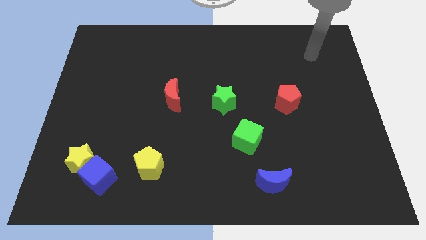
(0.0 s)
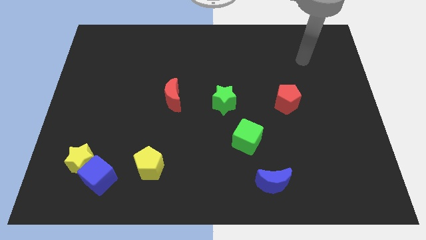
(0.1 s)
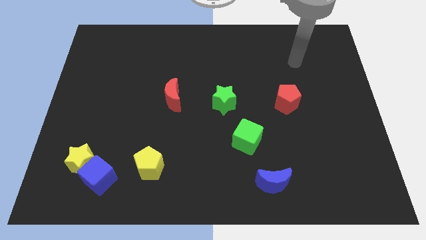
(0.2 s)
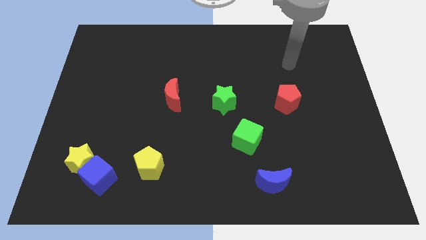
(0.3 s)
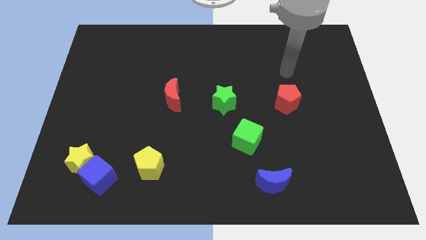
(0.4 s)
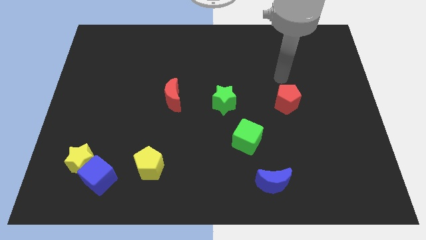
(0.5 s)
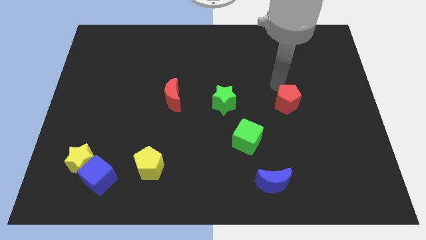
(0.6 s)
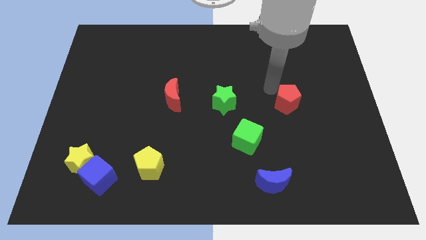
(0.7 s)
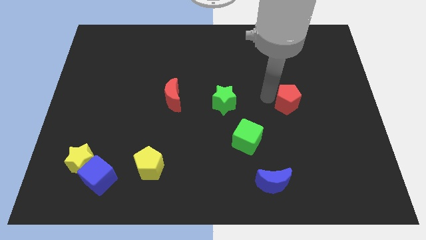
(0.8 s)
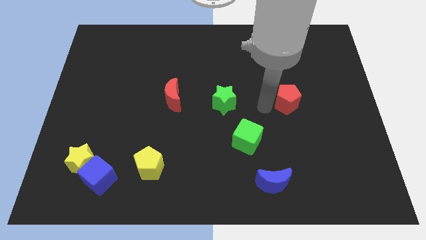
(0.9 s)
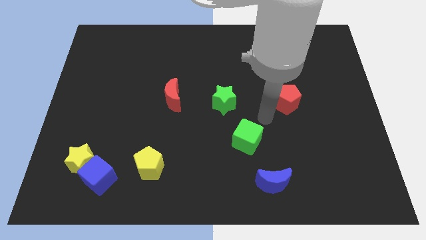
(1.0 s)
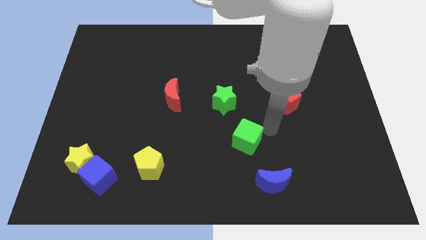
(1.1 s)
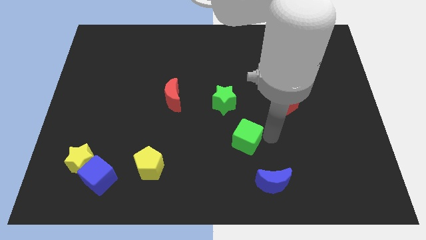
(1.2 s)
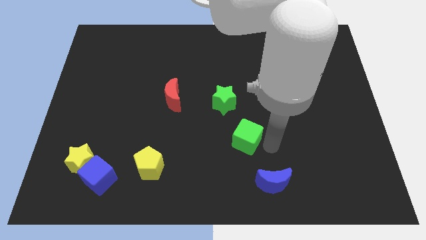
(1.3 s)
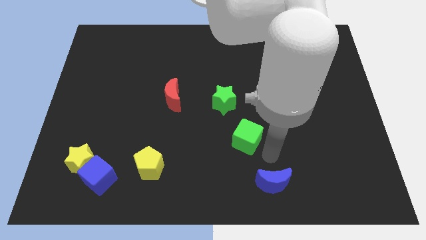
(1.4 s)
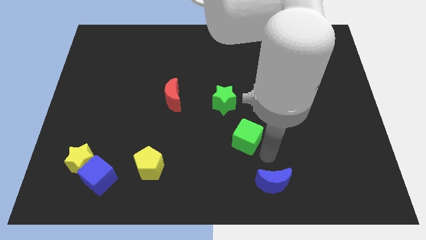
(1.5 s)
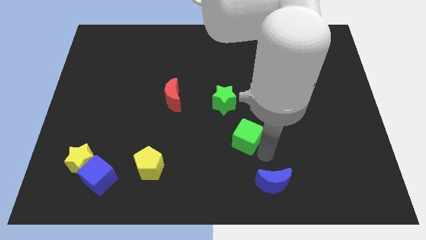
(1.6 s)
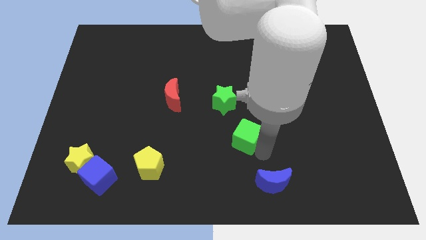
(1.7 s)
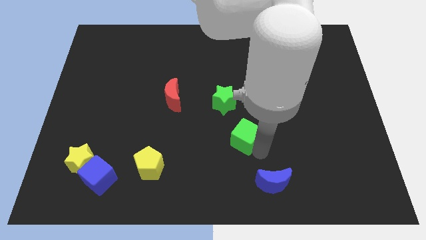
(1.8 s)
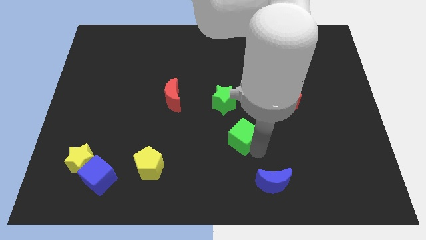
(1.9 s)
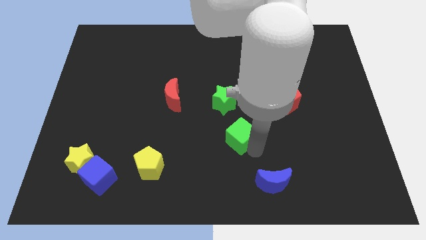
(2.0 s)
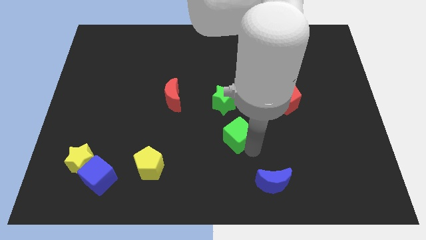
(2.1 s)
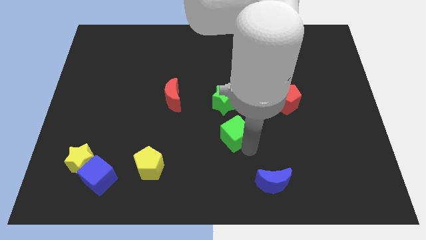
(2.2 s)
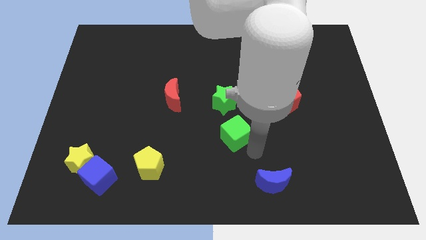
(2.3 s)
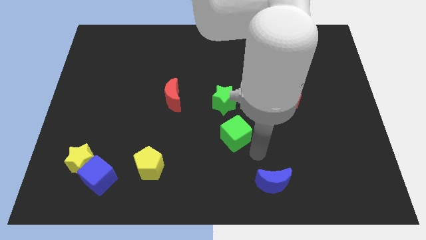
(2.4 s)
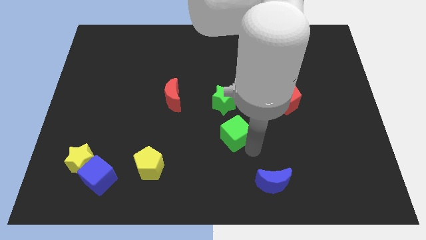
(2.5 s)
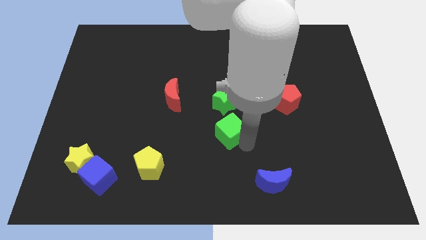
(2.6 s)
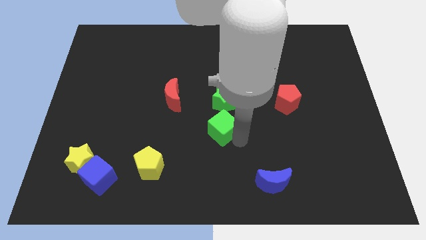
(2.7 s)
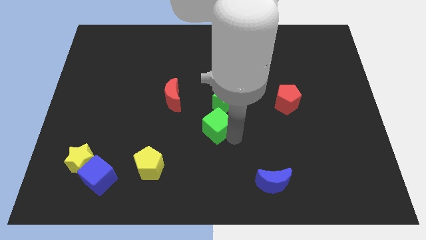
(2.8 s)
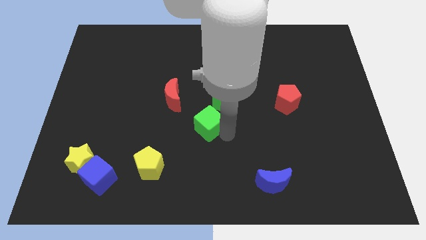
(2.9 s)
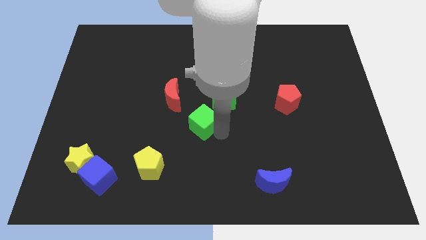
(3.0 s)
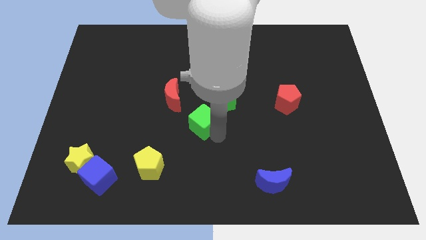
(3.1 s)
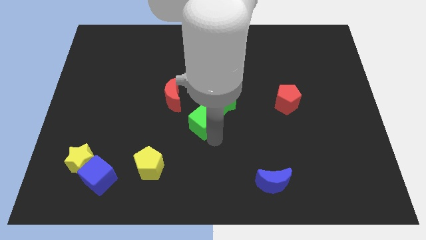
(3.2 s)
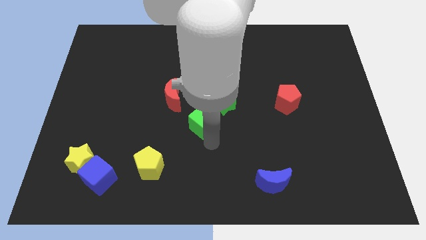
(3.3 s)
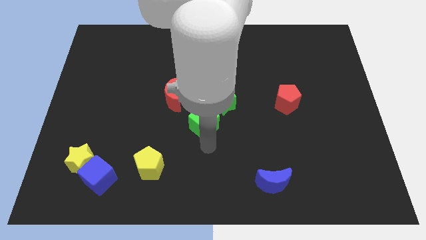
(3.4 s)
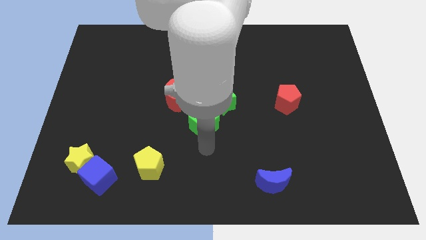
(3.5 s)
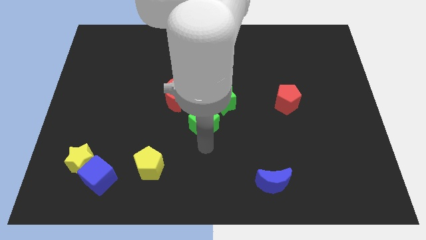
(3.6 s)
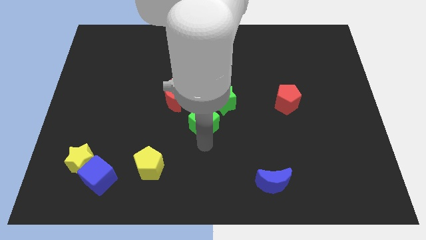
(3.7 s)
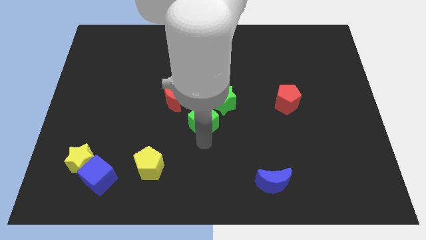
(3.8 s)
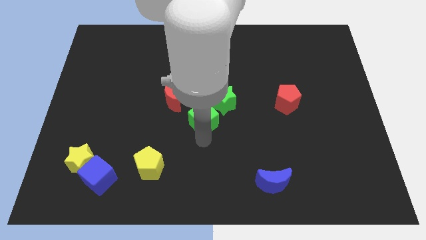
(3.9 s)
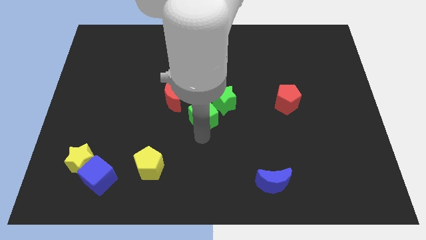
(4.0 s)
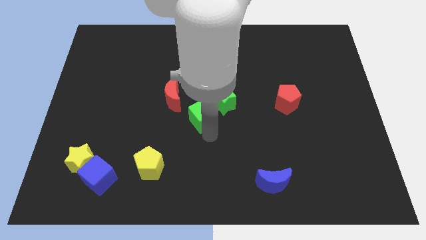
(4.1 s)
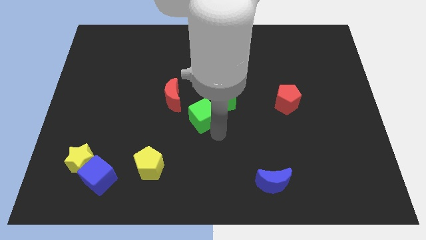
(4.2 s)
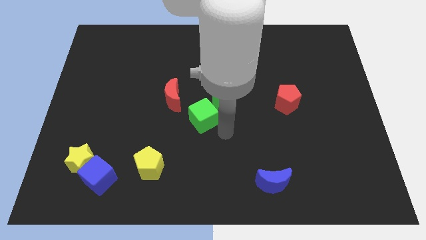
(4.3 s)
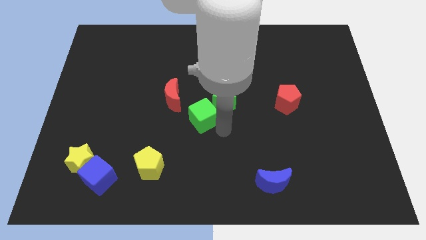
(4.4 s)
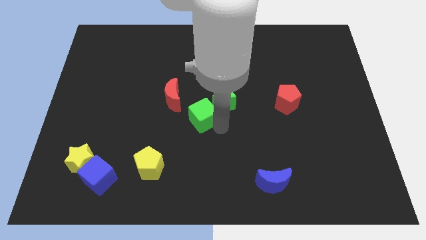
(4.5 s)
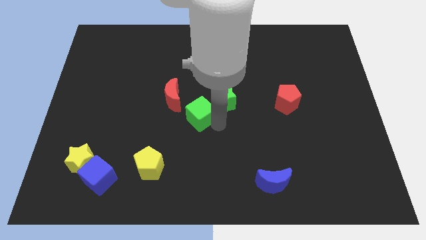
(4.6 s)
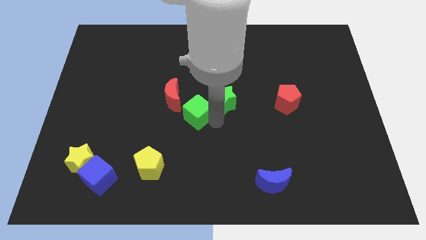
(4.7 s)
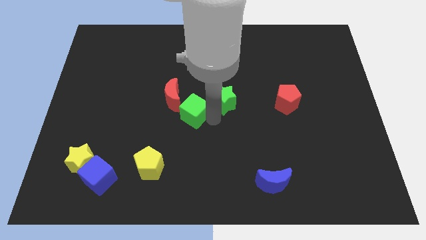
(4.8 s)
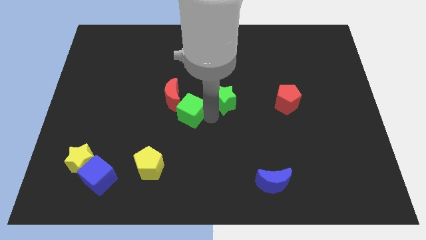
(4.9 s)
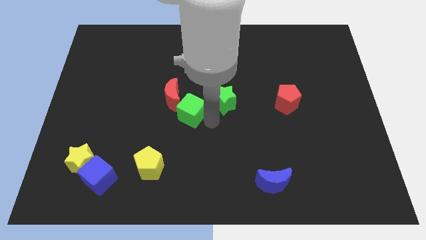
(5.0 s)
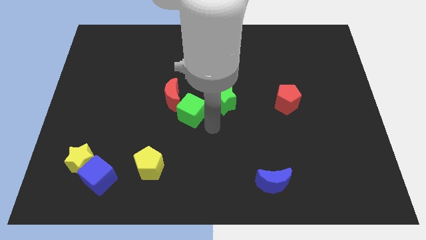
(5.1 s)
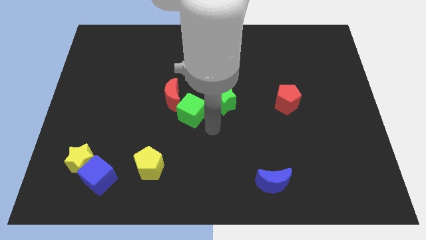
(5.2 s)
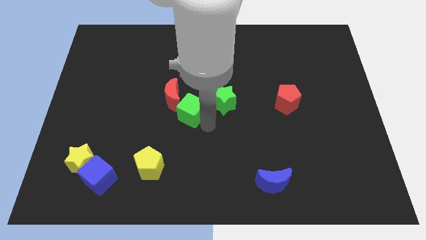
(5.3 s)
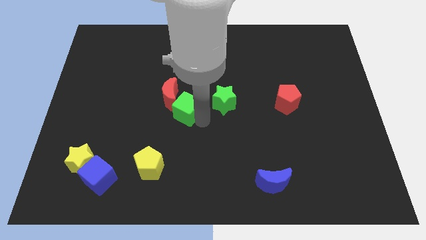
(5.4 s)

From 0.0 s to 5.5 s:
put the green cube towards the red moon

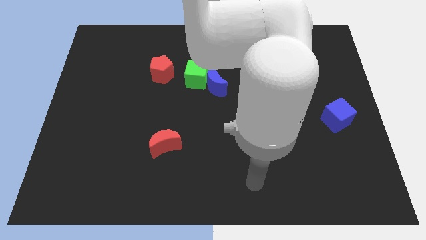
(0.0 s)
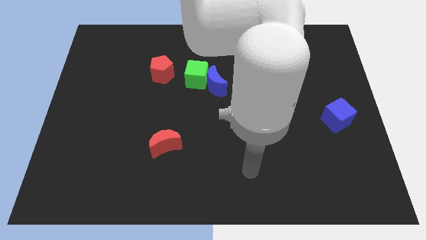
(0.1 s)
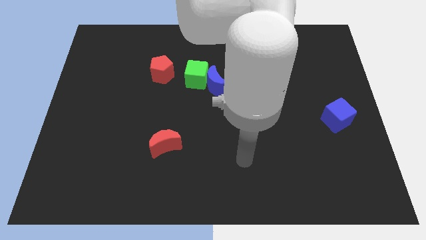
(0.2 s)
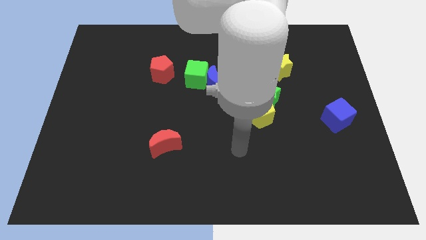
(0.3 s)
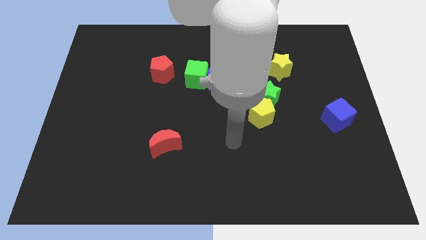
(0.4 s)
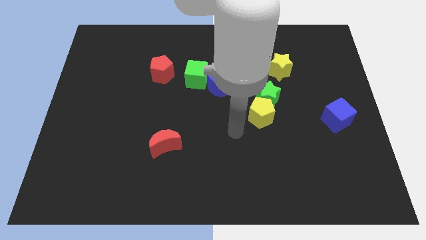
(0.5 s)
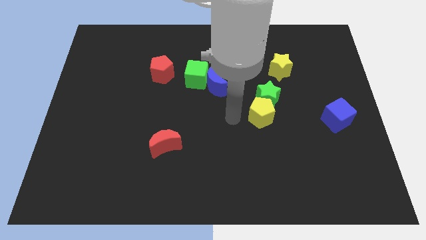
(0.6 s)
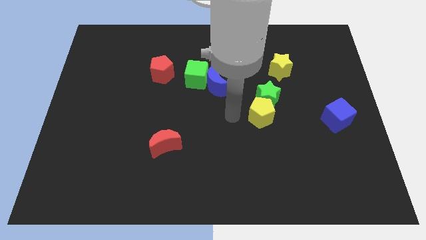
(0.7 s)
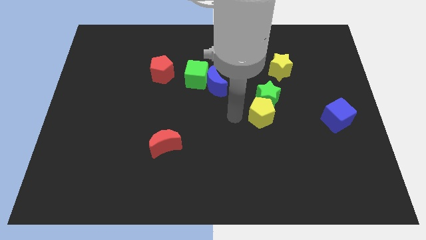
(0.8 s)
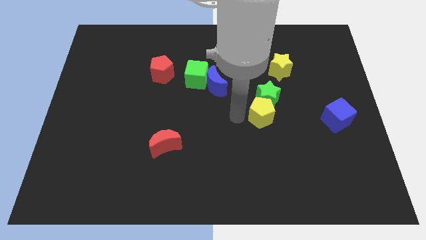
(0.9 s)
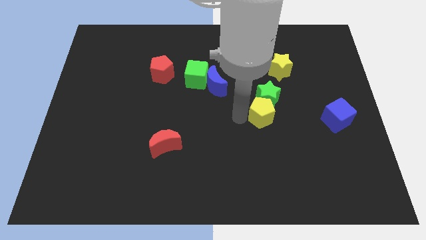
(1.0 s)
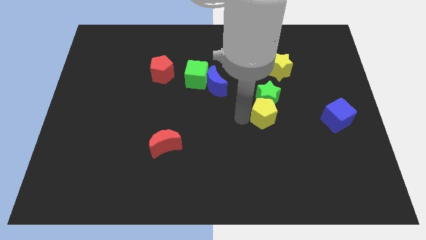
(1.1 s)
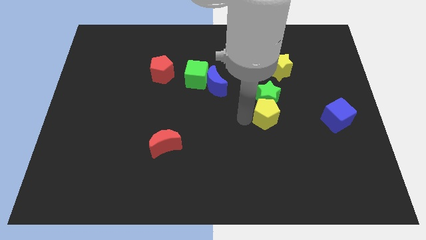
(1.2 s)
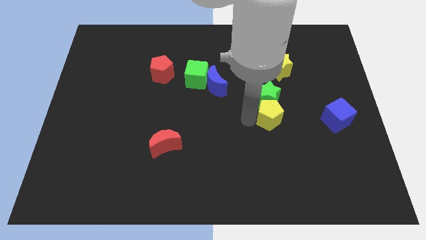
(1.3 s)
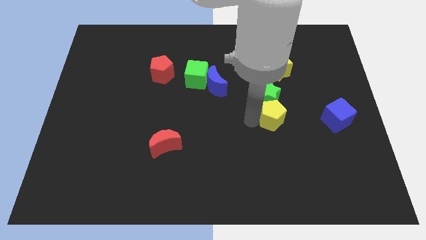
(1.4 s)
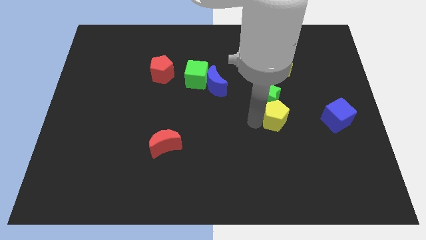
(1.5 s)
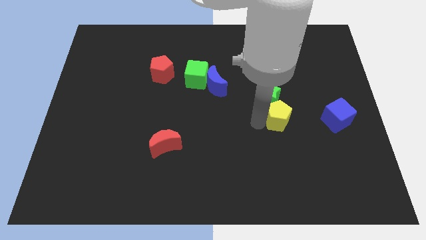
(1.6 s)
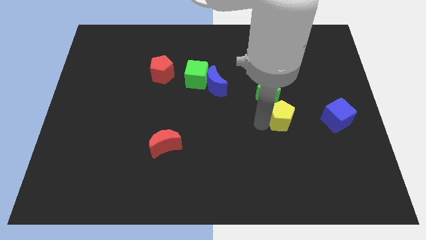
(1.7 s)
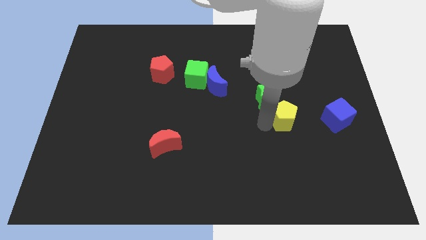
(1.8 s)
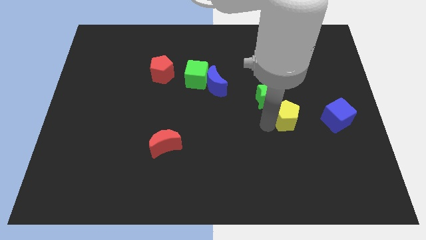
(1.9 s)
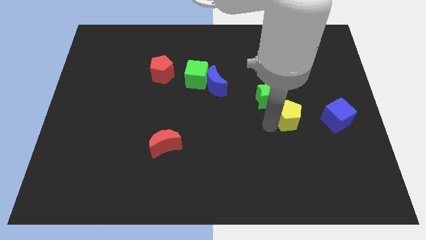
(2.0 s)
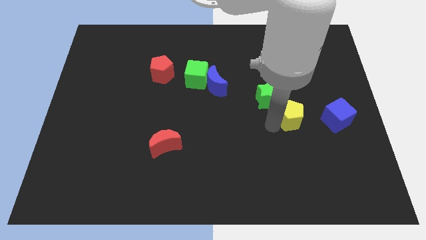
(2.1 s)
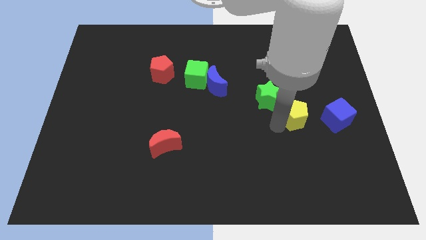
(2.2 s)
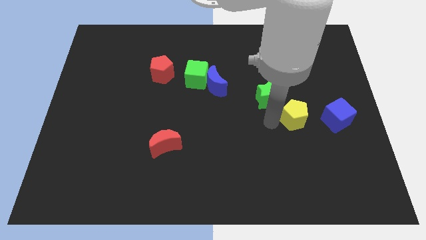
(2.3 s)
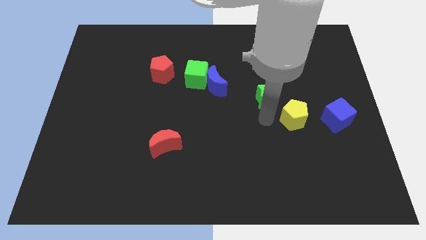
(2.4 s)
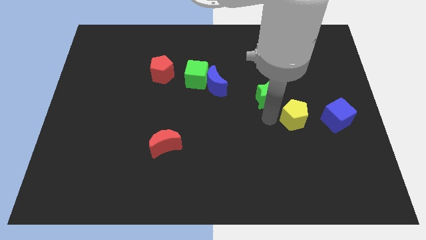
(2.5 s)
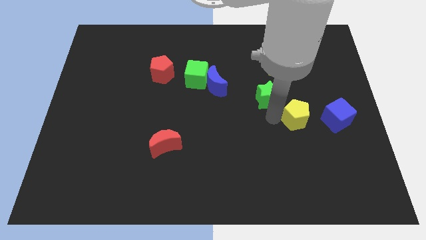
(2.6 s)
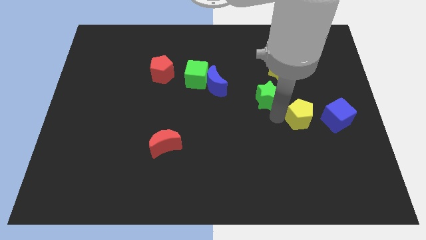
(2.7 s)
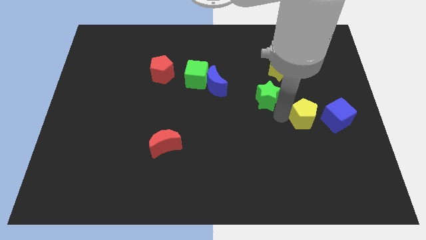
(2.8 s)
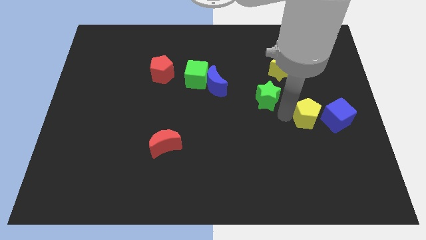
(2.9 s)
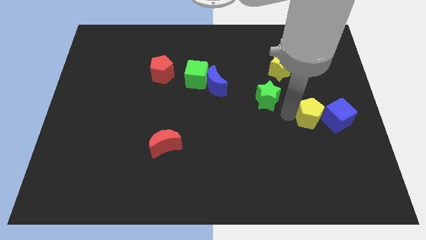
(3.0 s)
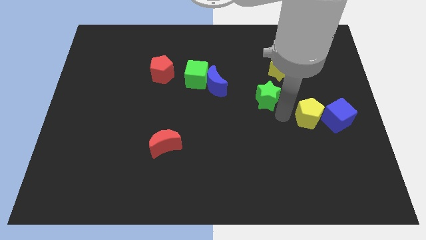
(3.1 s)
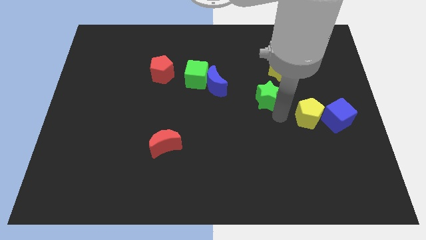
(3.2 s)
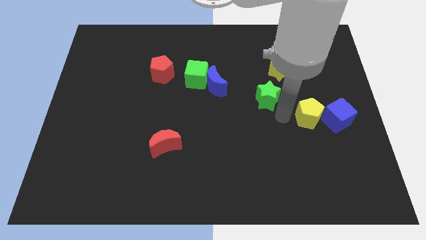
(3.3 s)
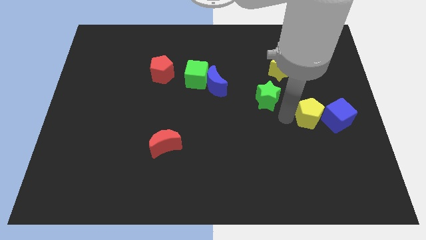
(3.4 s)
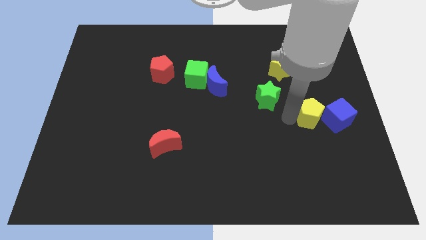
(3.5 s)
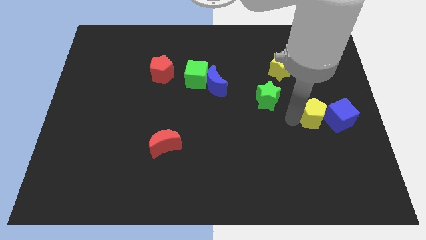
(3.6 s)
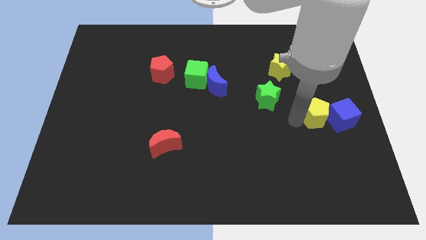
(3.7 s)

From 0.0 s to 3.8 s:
move the yellow pentagon close to the blue cube
